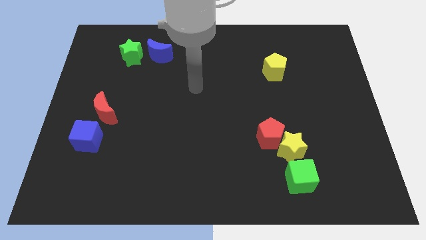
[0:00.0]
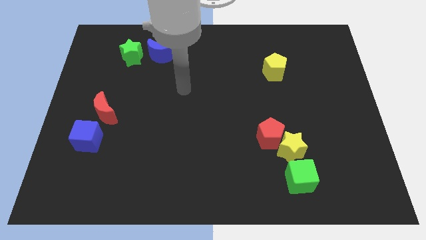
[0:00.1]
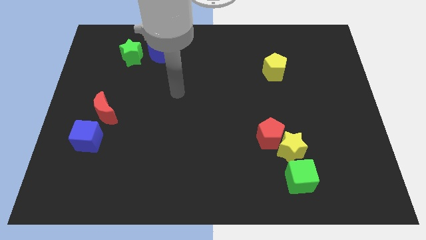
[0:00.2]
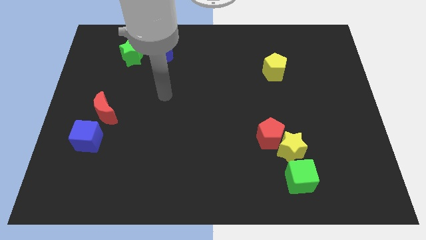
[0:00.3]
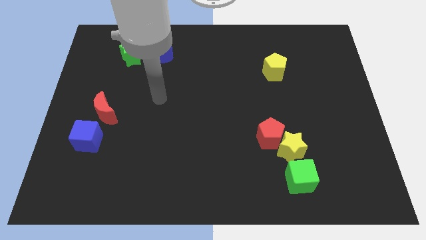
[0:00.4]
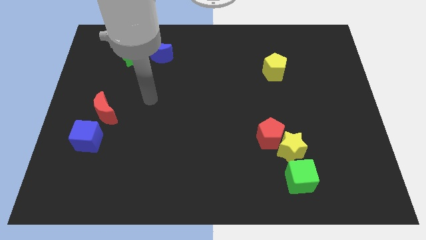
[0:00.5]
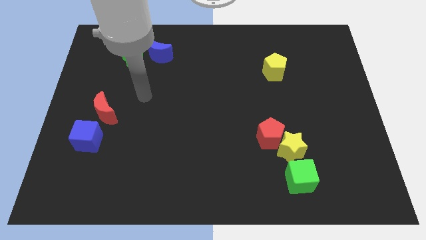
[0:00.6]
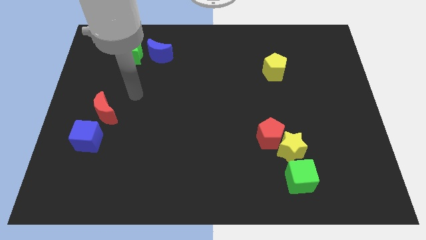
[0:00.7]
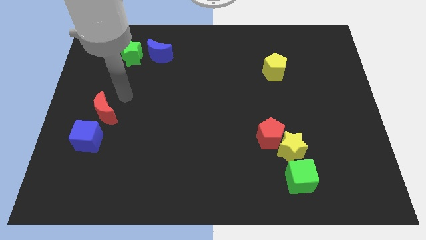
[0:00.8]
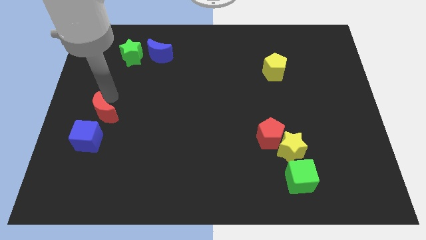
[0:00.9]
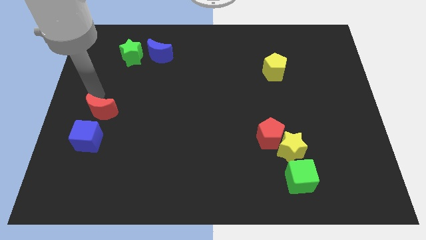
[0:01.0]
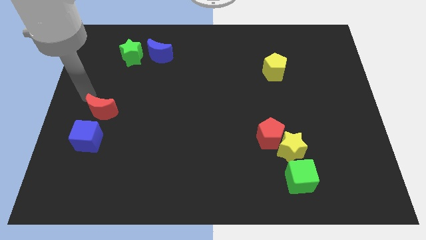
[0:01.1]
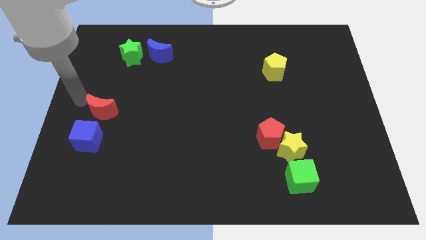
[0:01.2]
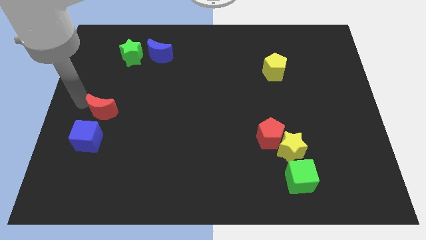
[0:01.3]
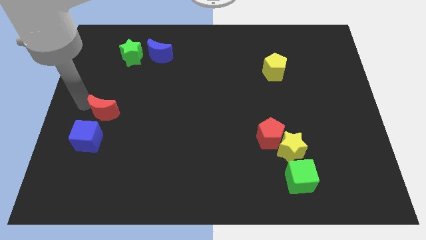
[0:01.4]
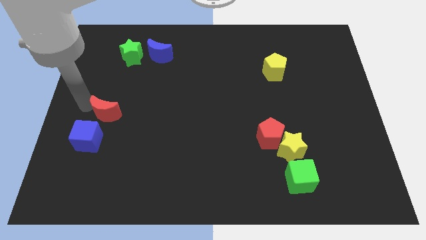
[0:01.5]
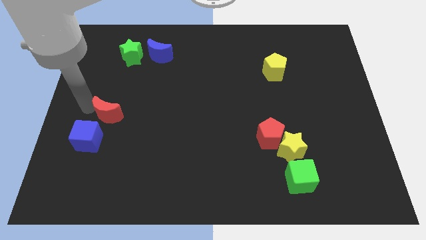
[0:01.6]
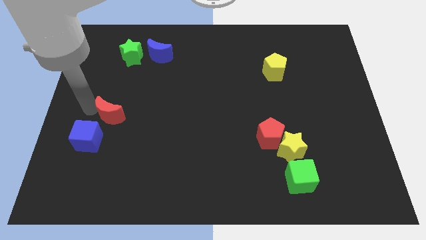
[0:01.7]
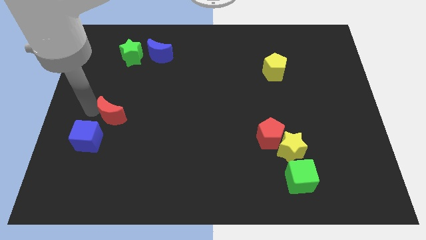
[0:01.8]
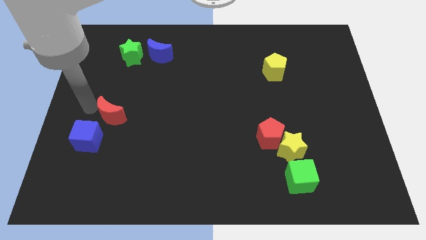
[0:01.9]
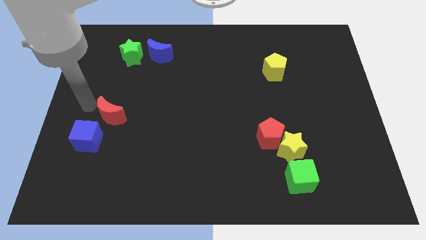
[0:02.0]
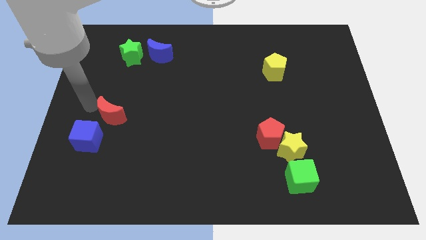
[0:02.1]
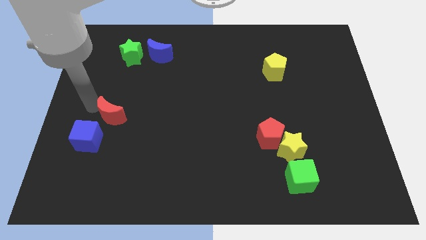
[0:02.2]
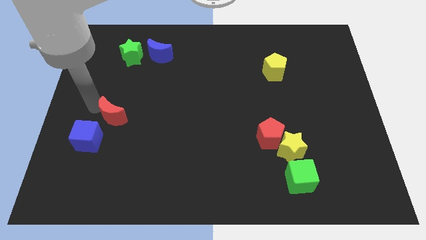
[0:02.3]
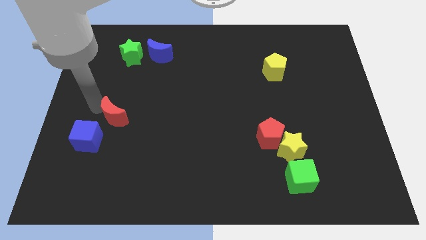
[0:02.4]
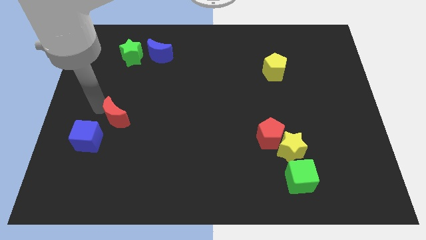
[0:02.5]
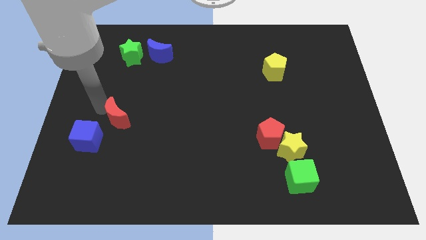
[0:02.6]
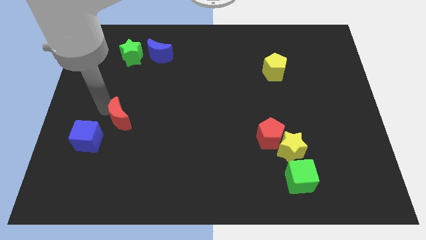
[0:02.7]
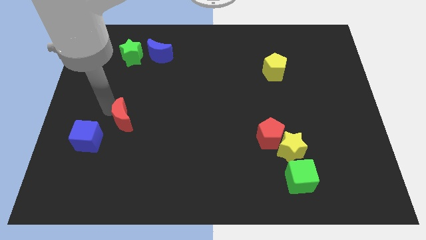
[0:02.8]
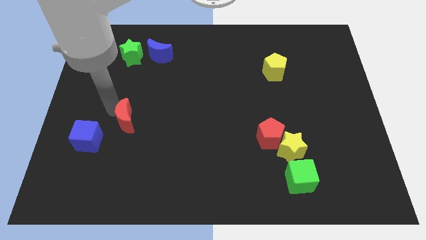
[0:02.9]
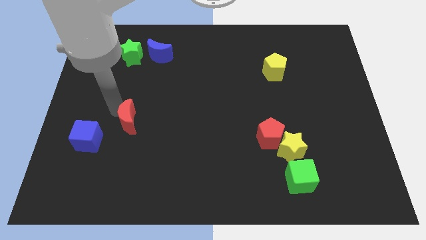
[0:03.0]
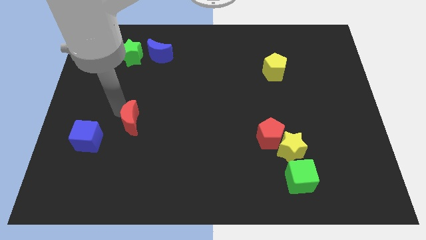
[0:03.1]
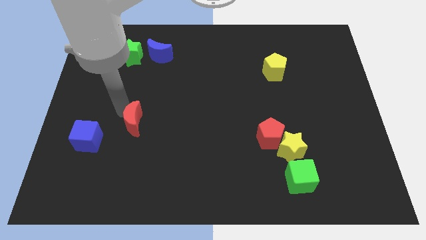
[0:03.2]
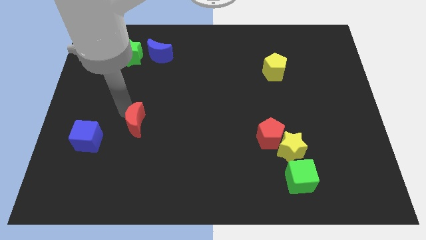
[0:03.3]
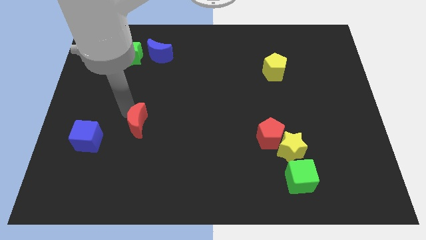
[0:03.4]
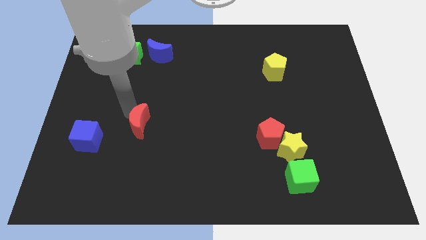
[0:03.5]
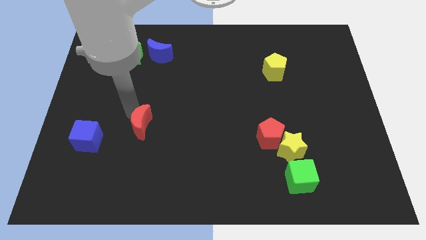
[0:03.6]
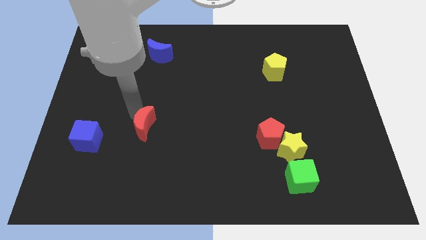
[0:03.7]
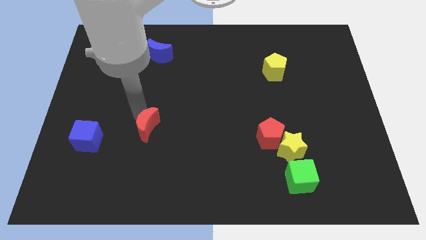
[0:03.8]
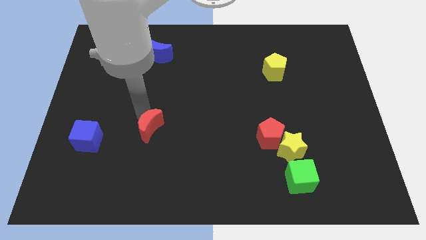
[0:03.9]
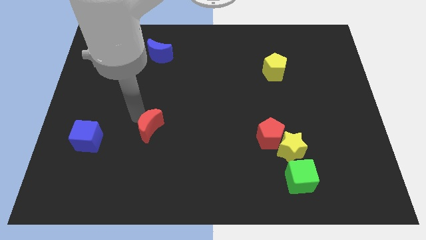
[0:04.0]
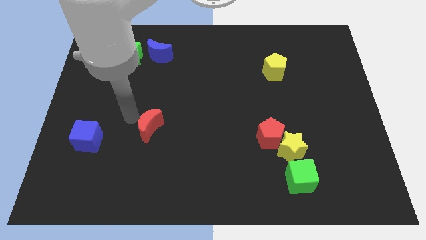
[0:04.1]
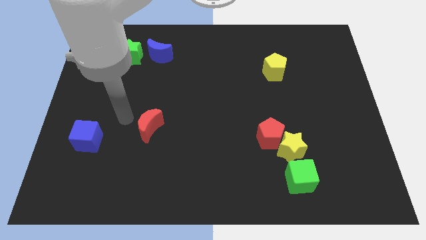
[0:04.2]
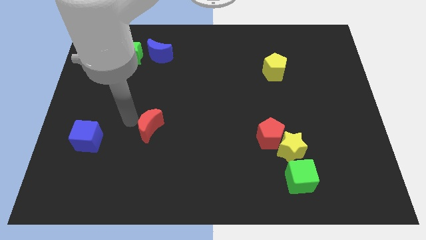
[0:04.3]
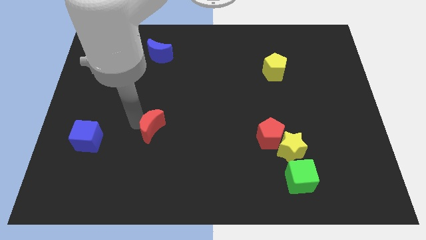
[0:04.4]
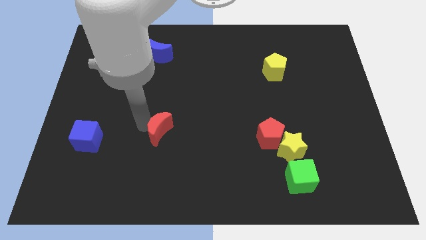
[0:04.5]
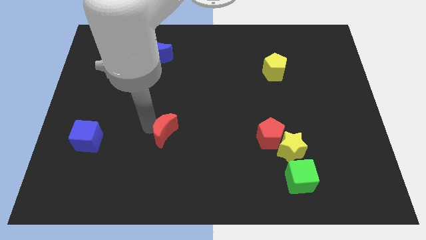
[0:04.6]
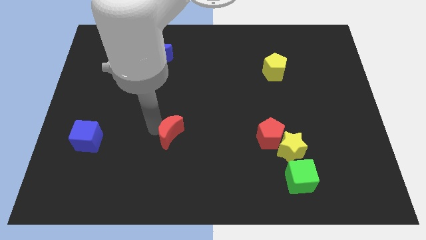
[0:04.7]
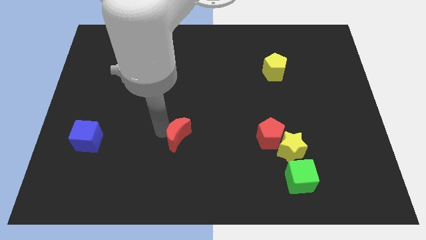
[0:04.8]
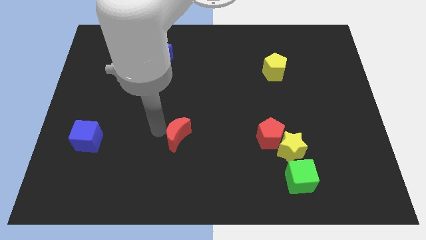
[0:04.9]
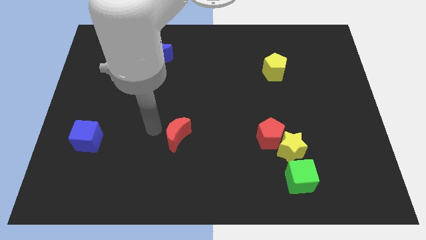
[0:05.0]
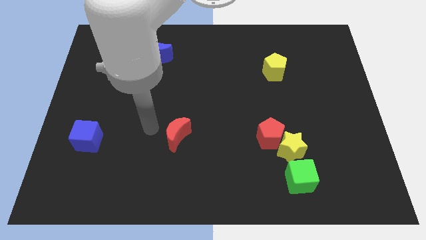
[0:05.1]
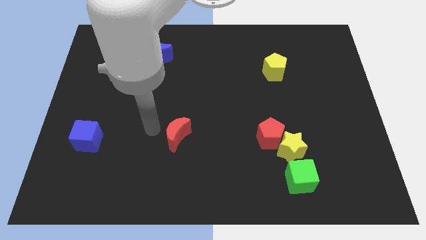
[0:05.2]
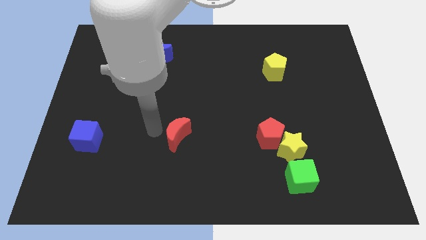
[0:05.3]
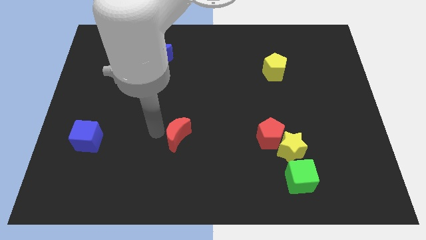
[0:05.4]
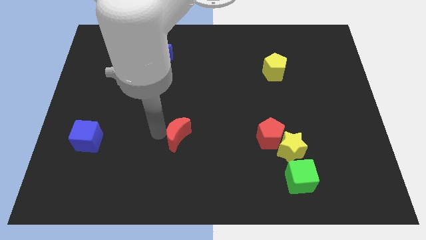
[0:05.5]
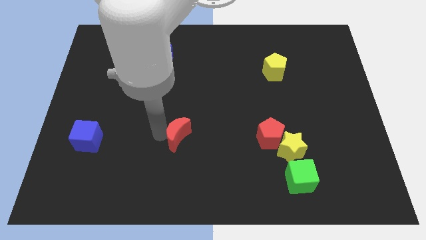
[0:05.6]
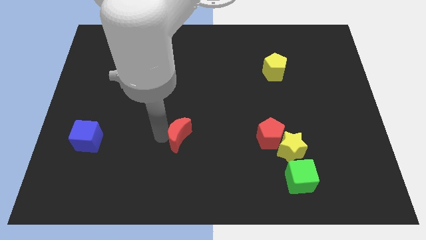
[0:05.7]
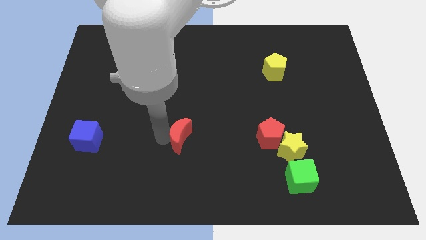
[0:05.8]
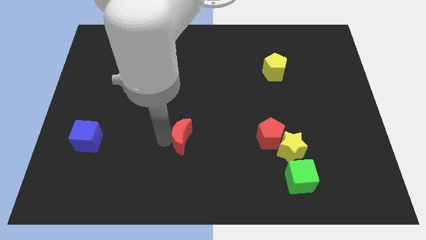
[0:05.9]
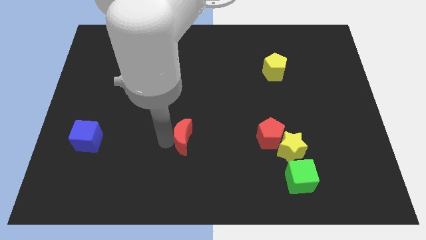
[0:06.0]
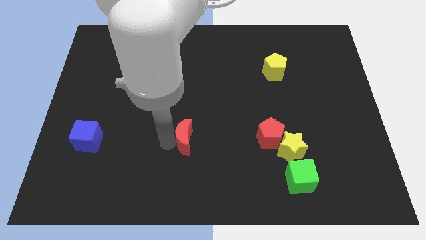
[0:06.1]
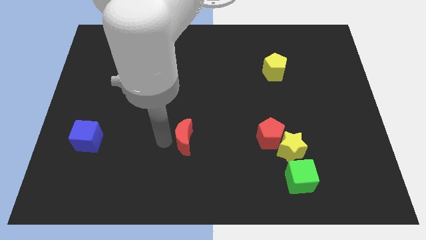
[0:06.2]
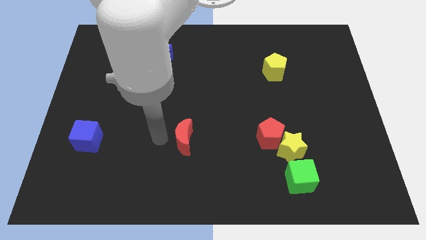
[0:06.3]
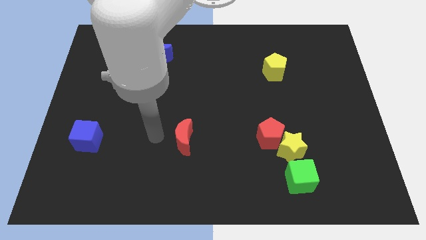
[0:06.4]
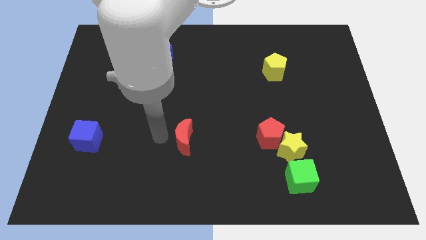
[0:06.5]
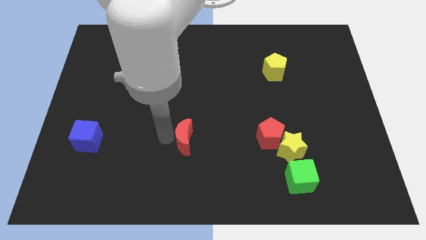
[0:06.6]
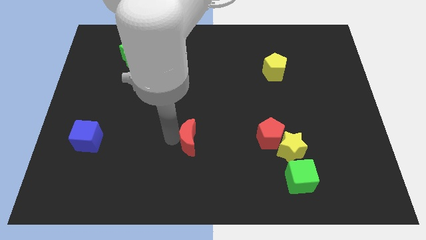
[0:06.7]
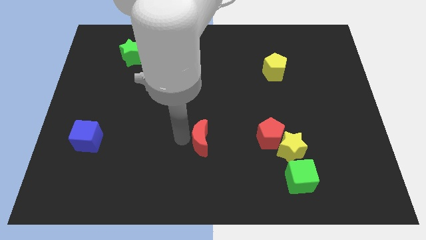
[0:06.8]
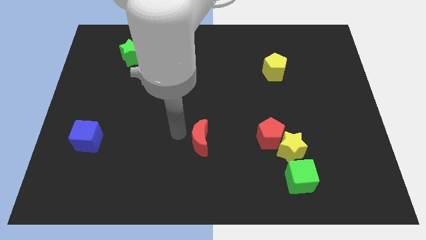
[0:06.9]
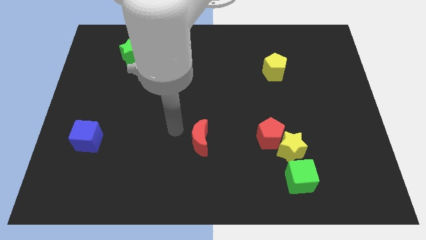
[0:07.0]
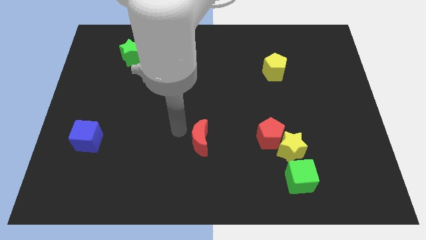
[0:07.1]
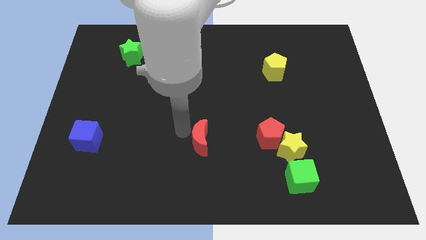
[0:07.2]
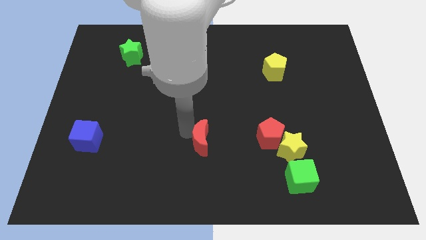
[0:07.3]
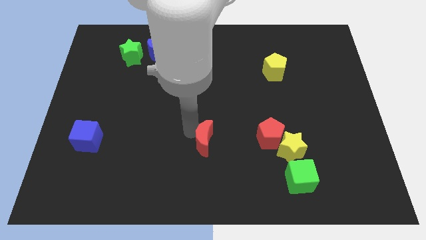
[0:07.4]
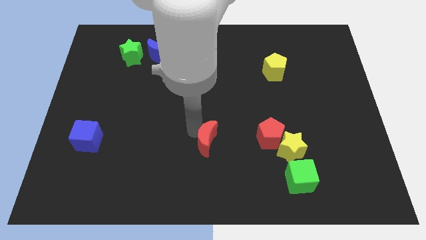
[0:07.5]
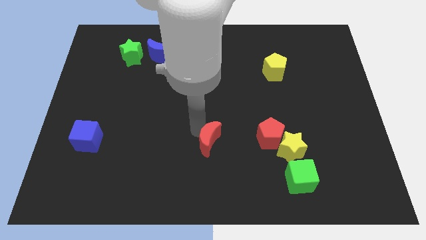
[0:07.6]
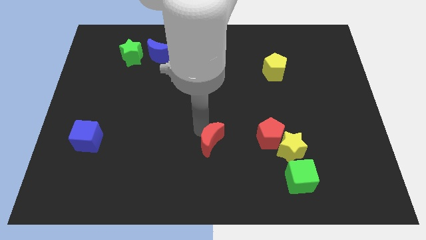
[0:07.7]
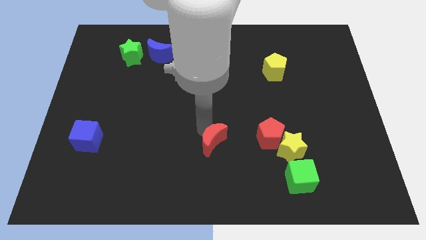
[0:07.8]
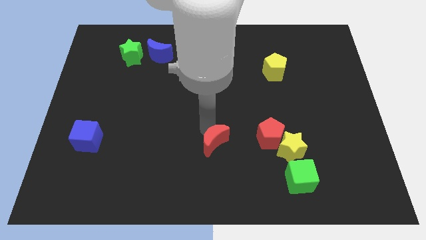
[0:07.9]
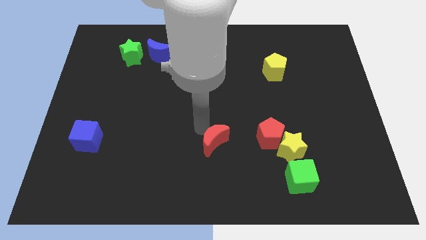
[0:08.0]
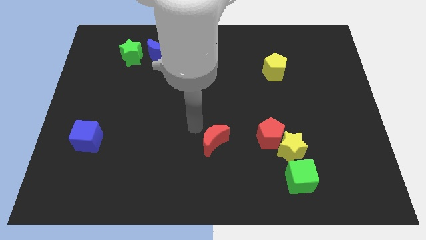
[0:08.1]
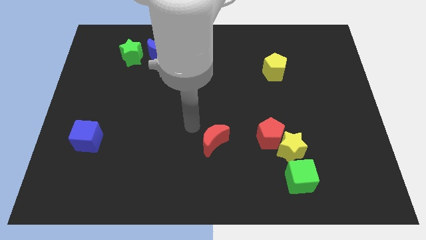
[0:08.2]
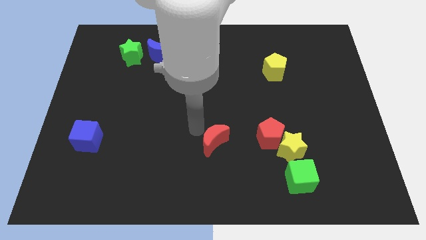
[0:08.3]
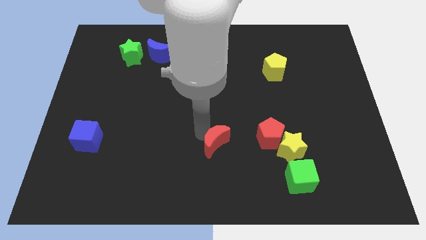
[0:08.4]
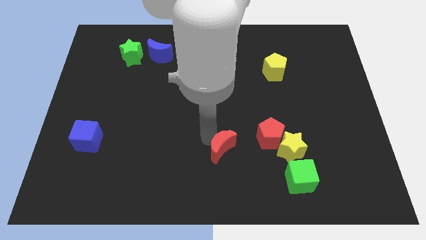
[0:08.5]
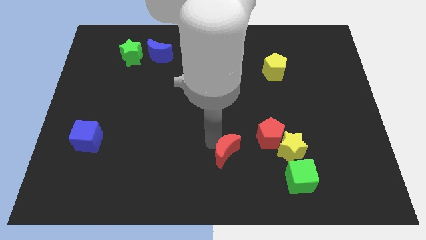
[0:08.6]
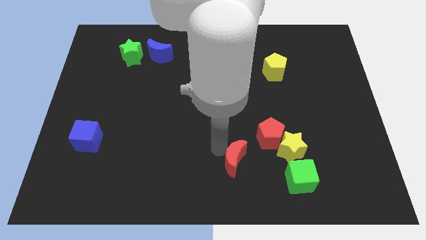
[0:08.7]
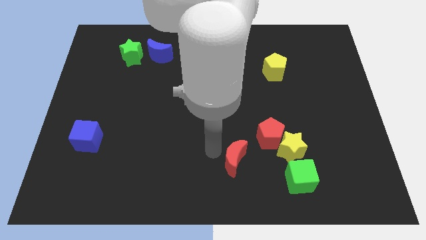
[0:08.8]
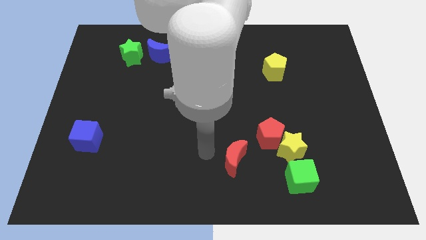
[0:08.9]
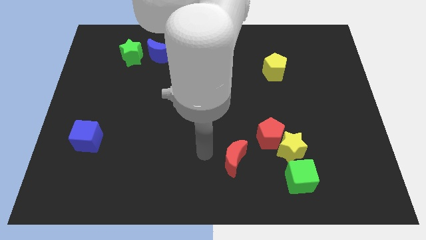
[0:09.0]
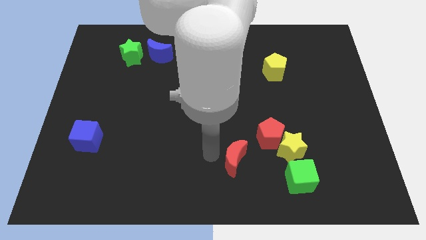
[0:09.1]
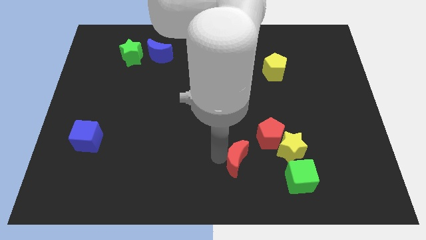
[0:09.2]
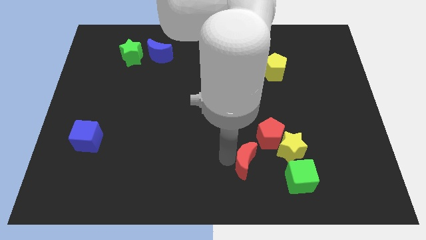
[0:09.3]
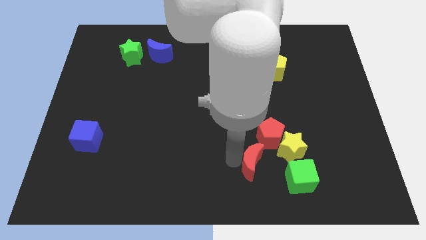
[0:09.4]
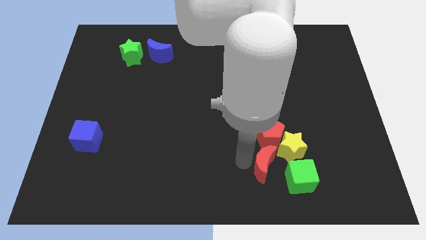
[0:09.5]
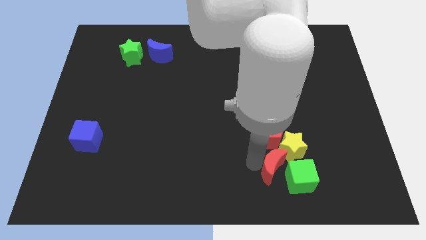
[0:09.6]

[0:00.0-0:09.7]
put the red moon close to the green cube
